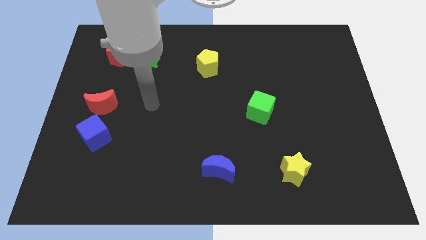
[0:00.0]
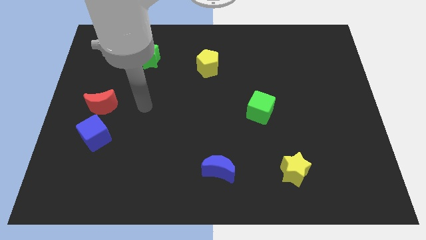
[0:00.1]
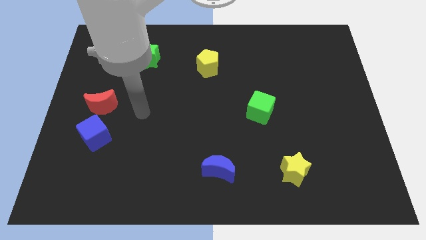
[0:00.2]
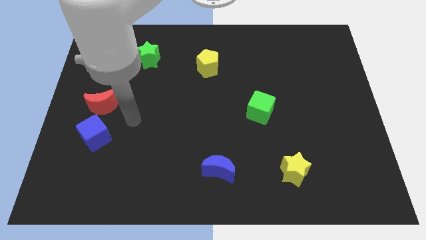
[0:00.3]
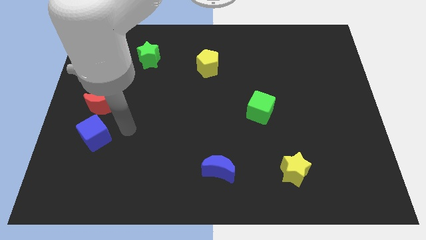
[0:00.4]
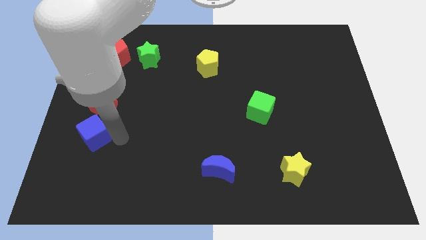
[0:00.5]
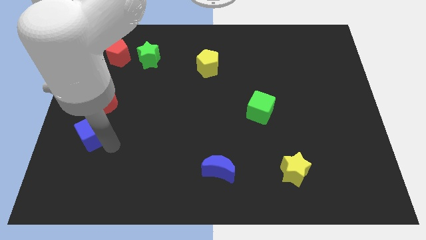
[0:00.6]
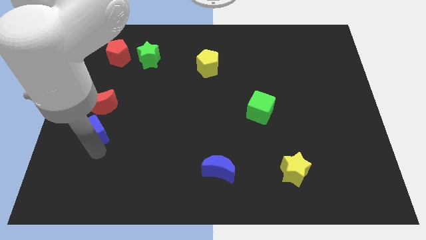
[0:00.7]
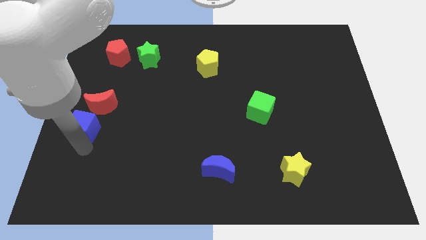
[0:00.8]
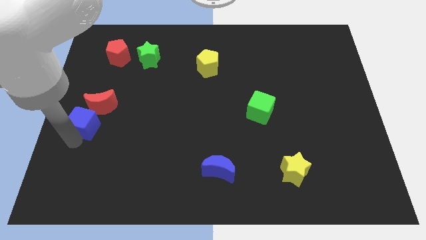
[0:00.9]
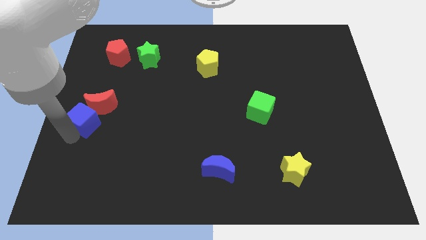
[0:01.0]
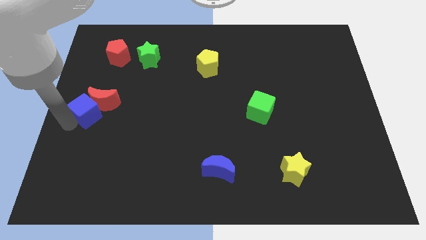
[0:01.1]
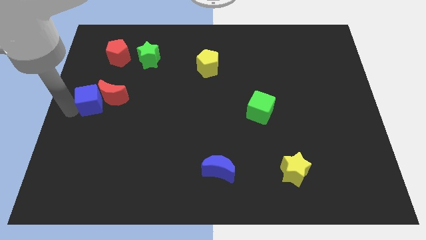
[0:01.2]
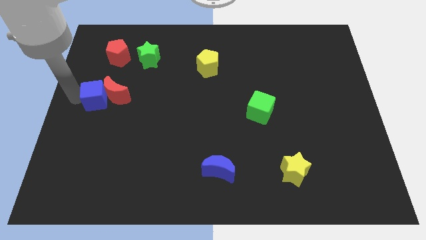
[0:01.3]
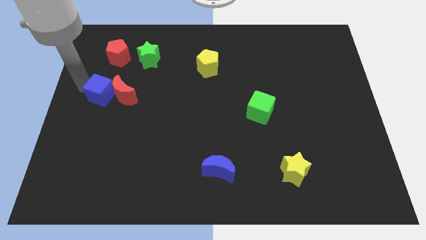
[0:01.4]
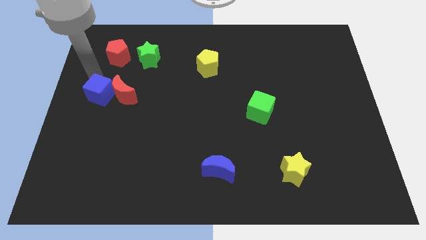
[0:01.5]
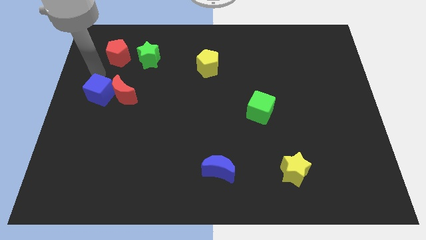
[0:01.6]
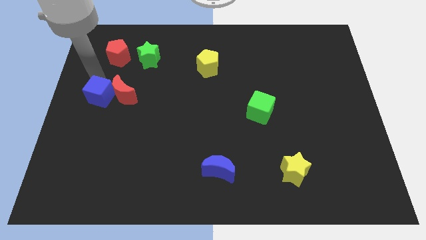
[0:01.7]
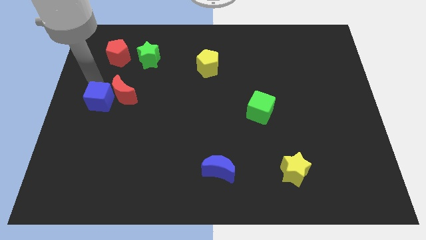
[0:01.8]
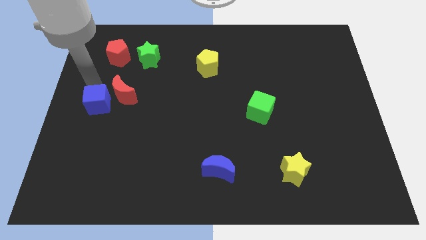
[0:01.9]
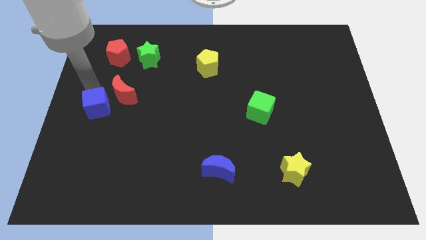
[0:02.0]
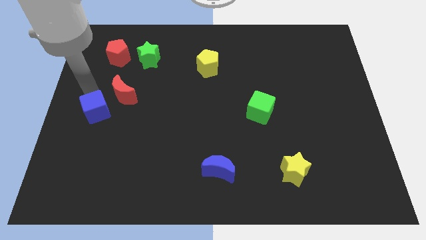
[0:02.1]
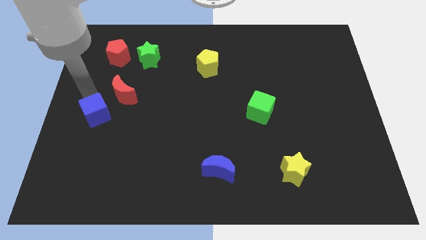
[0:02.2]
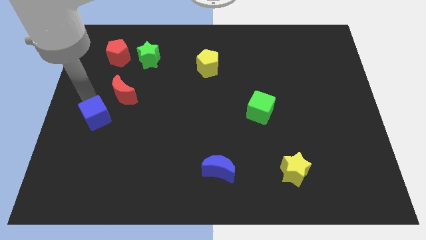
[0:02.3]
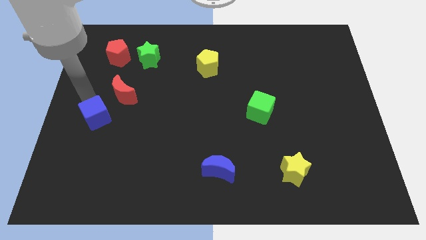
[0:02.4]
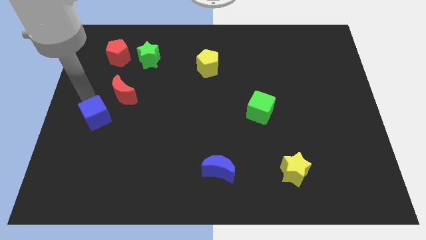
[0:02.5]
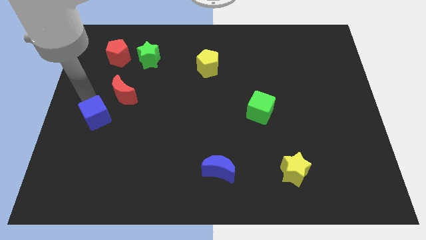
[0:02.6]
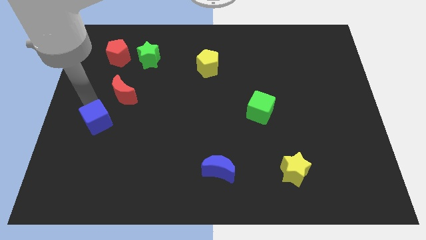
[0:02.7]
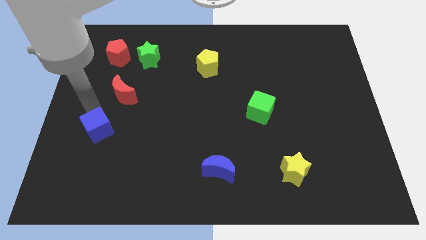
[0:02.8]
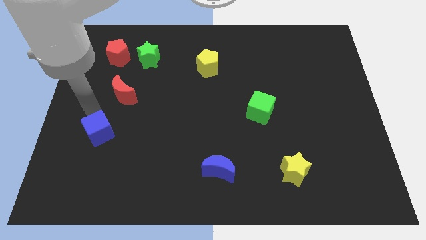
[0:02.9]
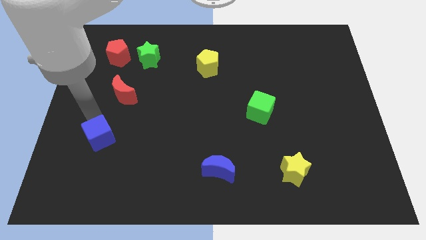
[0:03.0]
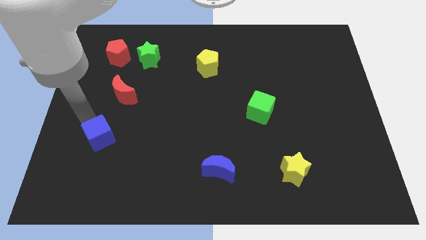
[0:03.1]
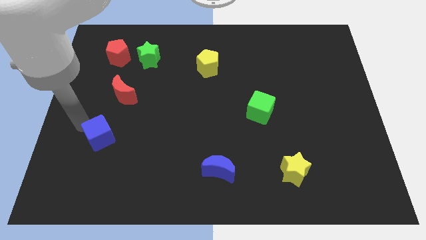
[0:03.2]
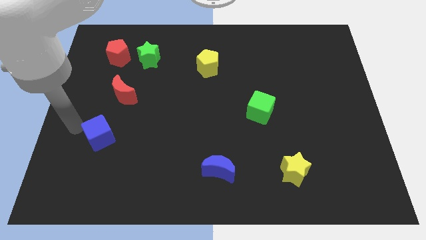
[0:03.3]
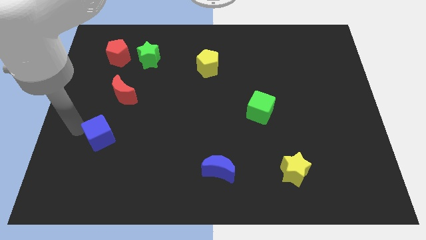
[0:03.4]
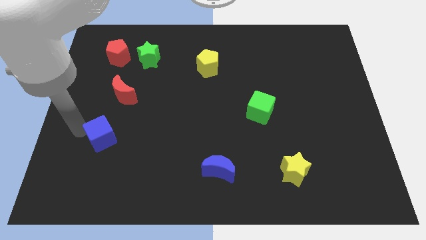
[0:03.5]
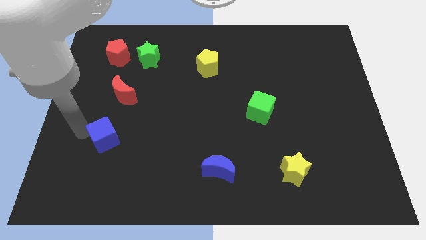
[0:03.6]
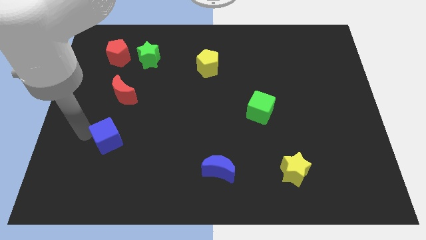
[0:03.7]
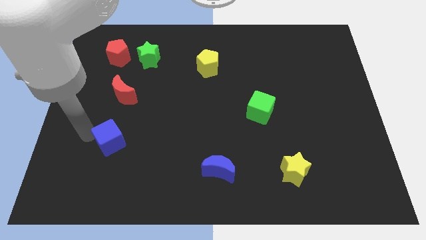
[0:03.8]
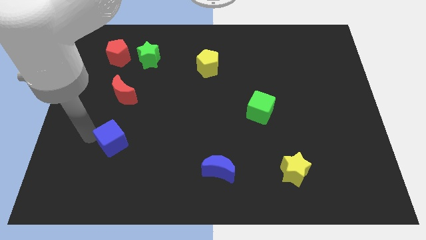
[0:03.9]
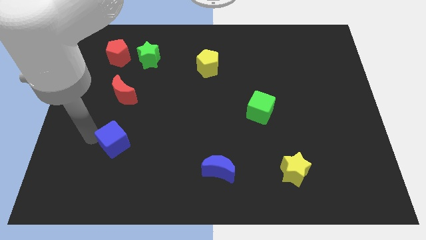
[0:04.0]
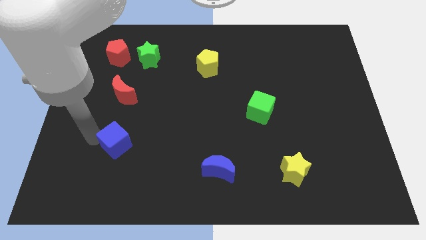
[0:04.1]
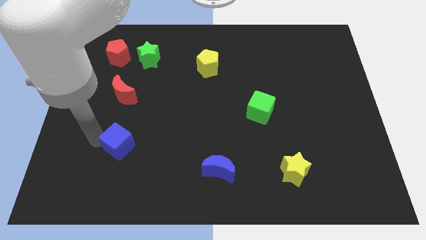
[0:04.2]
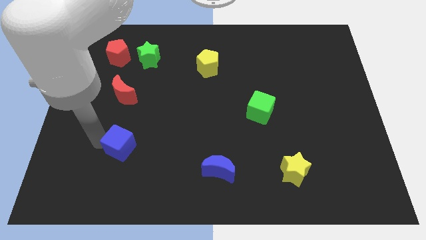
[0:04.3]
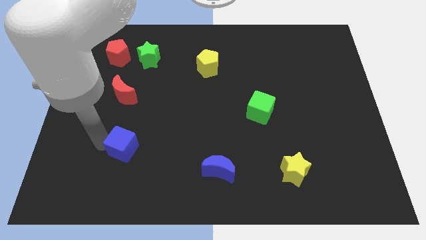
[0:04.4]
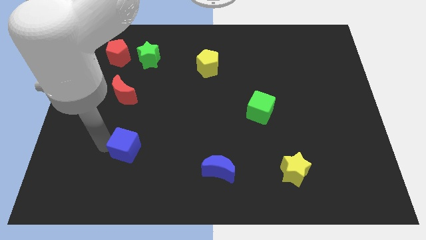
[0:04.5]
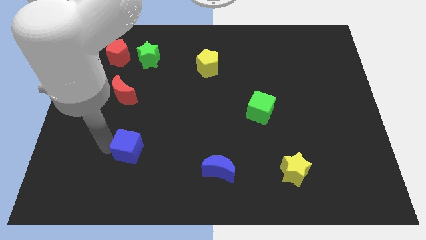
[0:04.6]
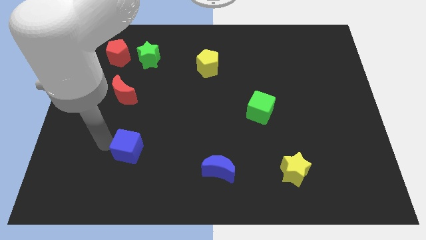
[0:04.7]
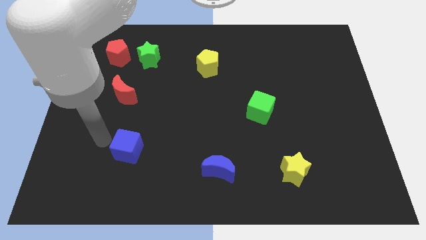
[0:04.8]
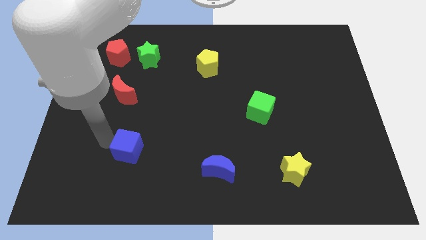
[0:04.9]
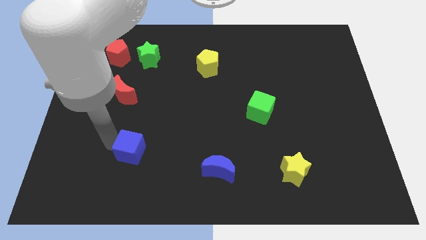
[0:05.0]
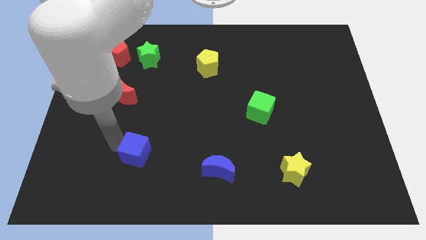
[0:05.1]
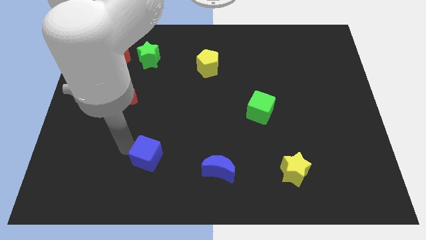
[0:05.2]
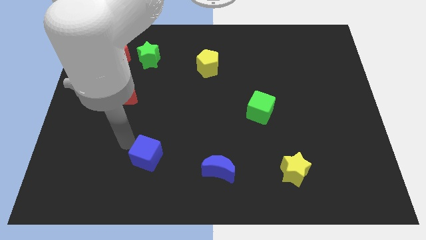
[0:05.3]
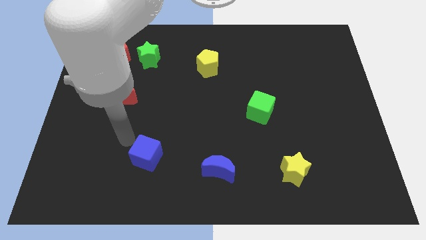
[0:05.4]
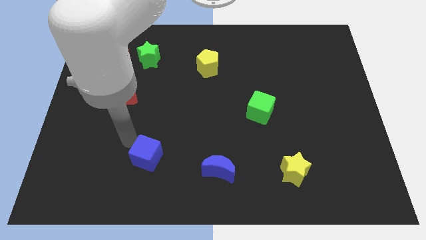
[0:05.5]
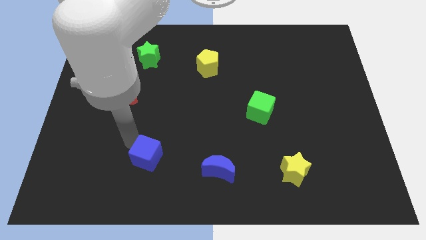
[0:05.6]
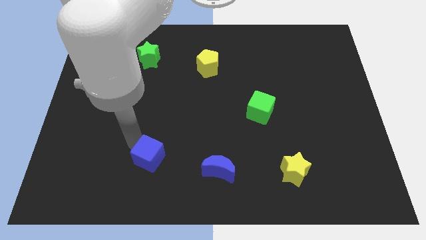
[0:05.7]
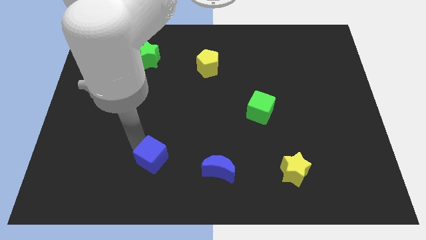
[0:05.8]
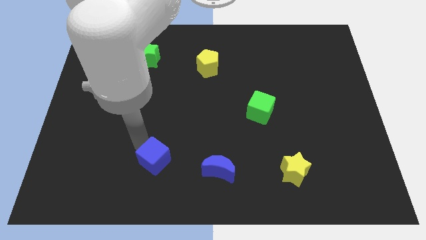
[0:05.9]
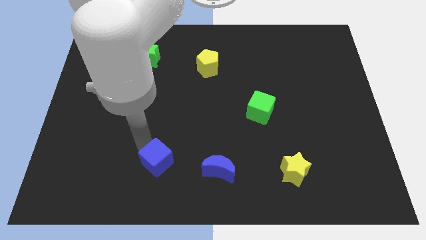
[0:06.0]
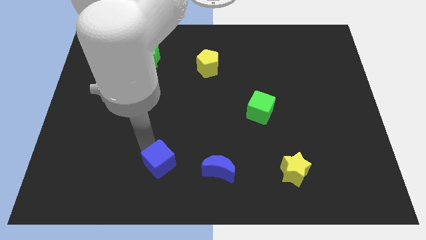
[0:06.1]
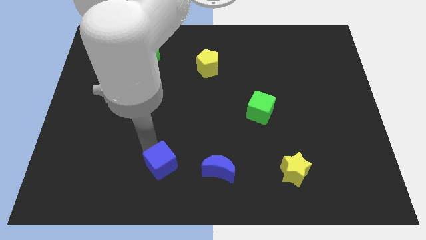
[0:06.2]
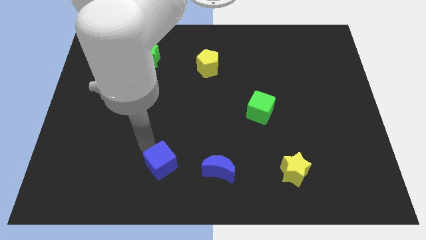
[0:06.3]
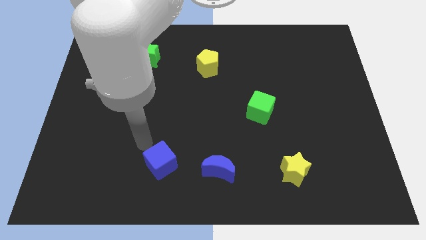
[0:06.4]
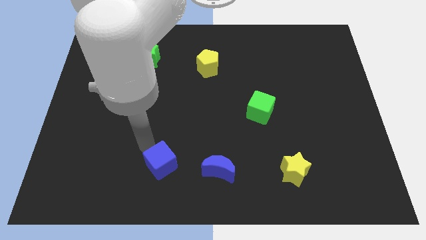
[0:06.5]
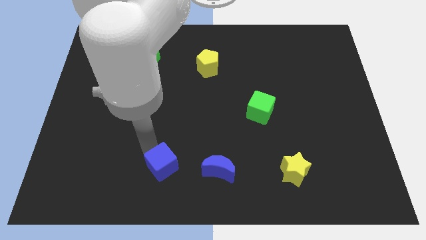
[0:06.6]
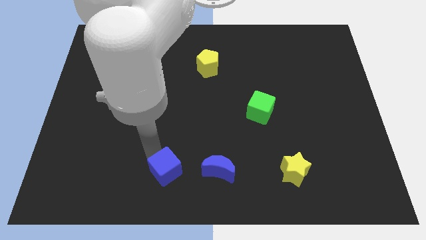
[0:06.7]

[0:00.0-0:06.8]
slide the blue cube to the bottom side
